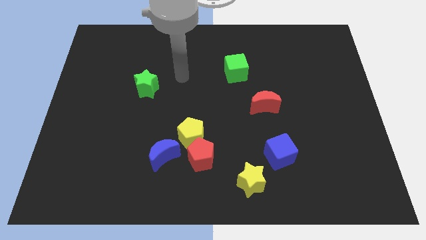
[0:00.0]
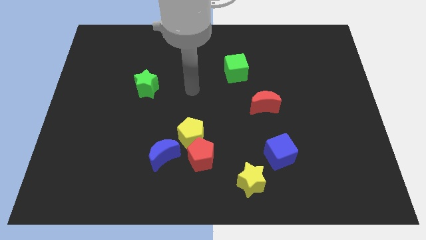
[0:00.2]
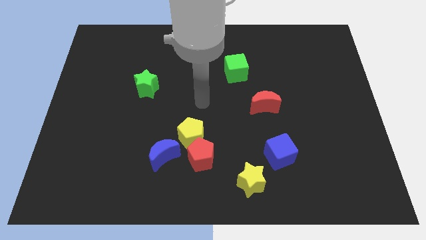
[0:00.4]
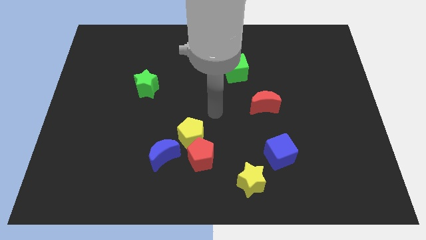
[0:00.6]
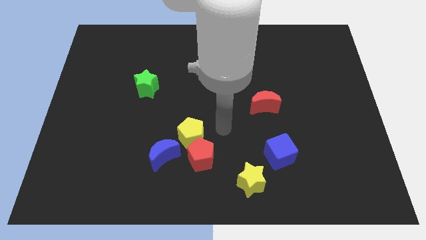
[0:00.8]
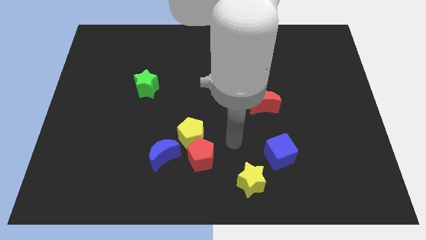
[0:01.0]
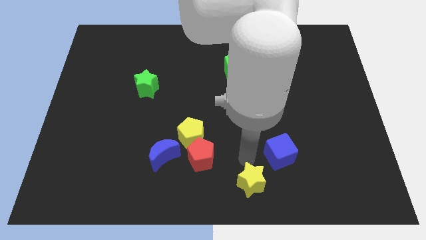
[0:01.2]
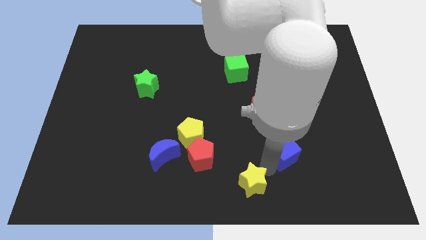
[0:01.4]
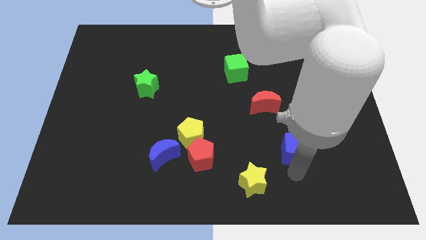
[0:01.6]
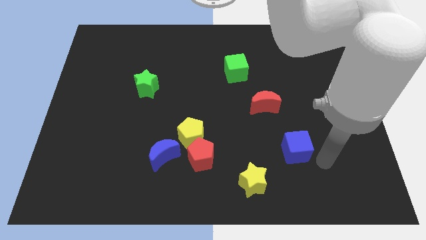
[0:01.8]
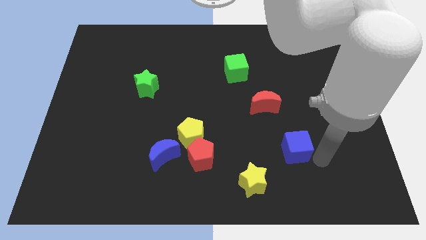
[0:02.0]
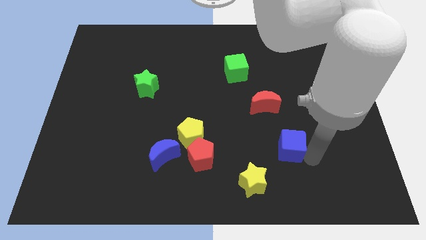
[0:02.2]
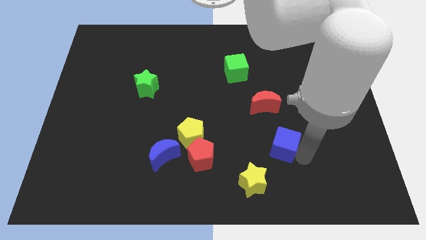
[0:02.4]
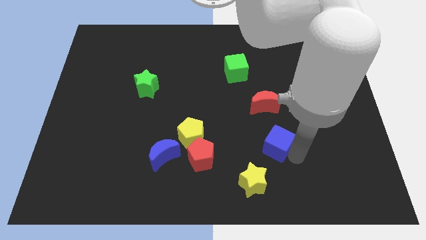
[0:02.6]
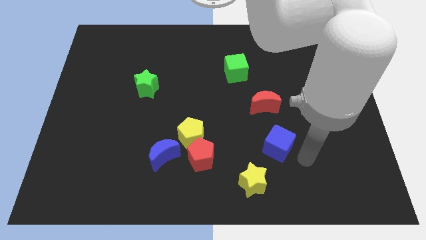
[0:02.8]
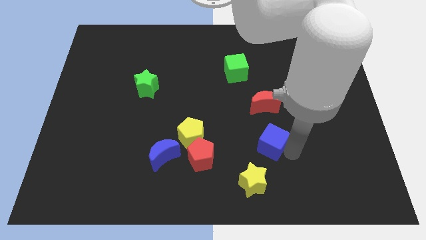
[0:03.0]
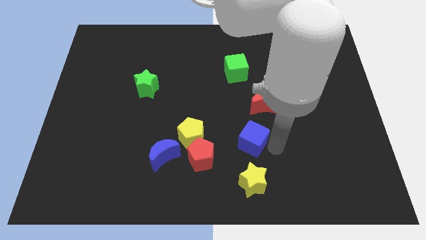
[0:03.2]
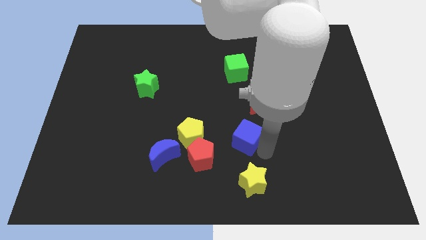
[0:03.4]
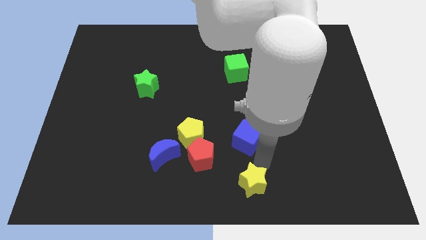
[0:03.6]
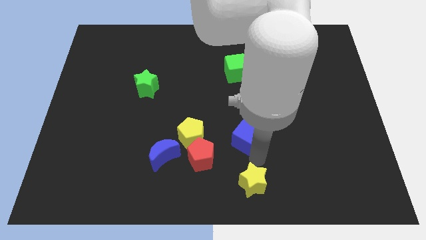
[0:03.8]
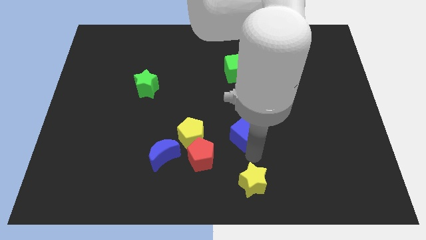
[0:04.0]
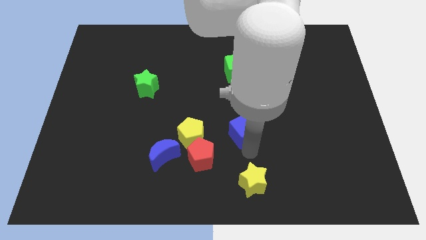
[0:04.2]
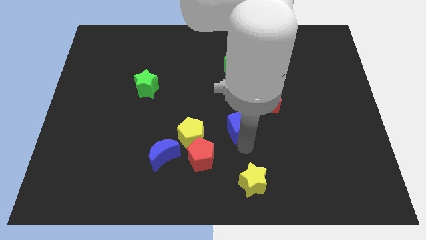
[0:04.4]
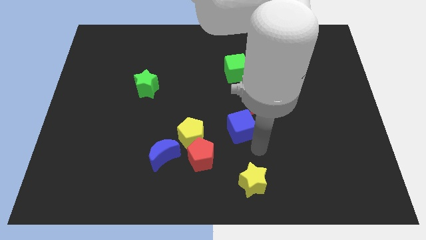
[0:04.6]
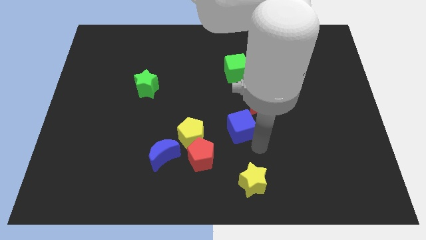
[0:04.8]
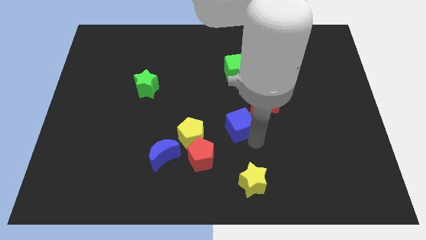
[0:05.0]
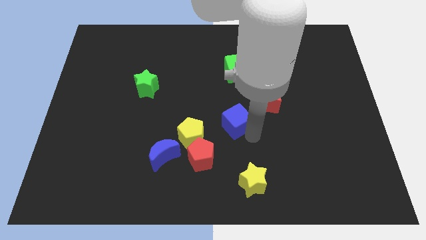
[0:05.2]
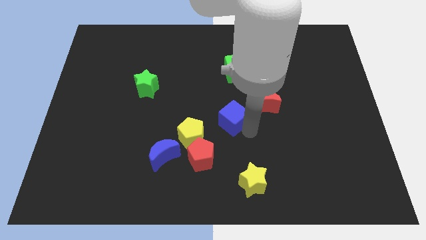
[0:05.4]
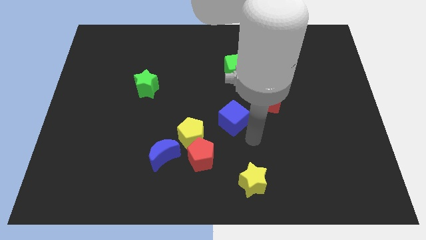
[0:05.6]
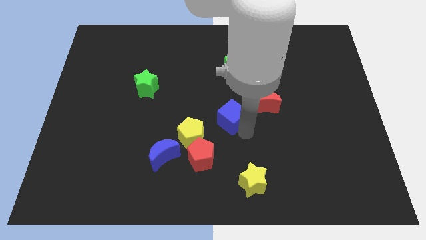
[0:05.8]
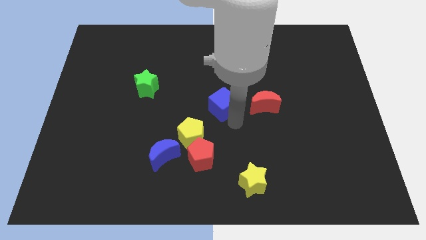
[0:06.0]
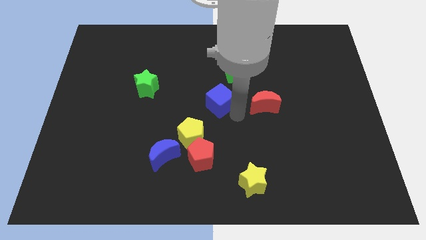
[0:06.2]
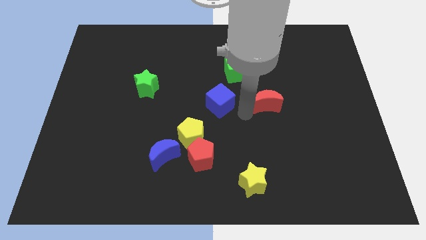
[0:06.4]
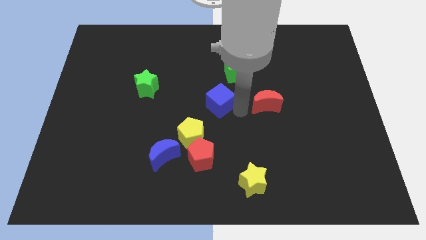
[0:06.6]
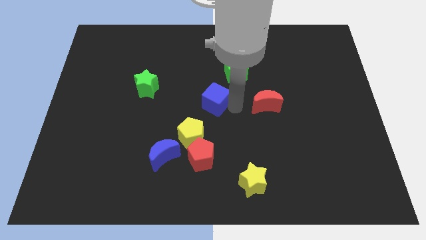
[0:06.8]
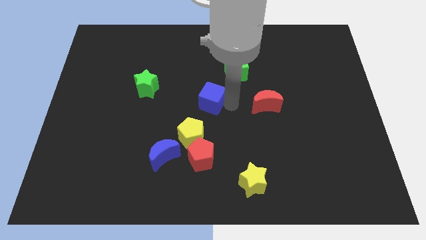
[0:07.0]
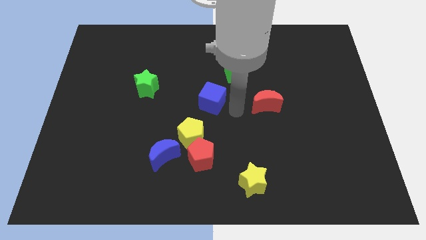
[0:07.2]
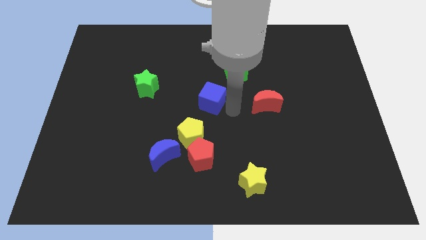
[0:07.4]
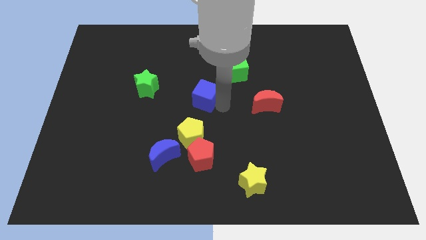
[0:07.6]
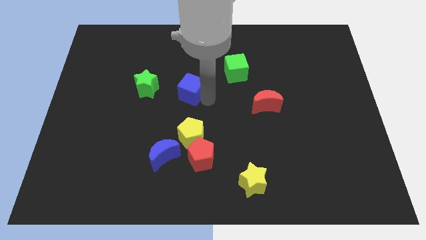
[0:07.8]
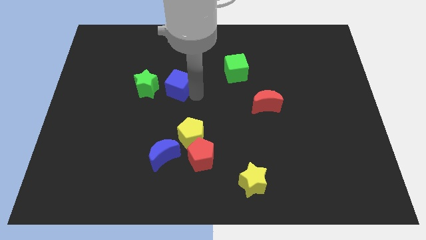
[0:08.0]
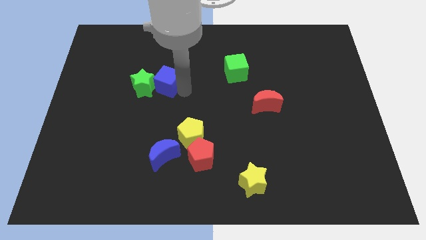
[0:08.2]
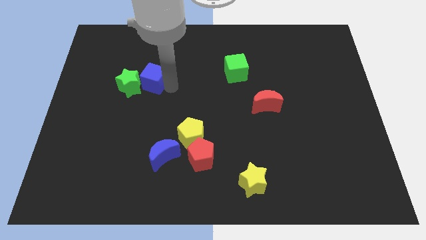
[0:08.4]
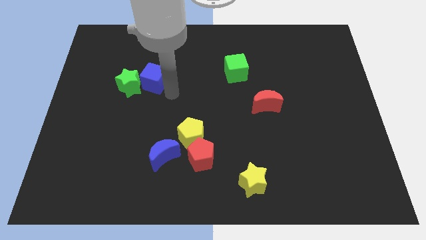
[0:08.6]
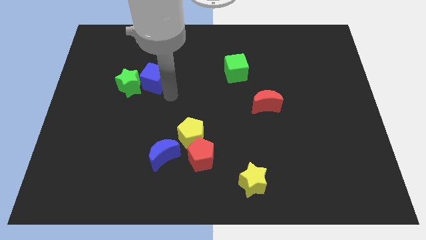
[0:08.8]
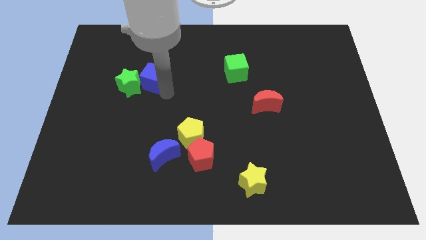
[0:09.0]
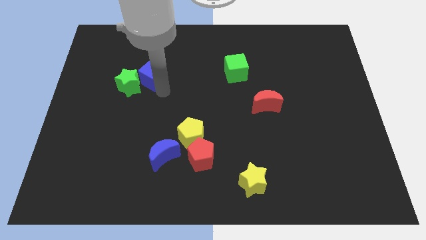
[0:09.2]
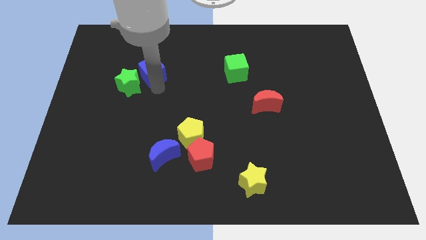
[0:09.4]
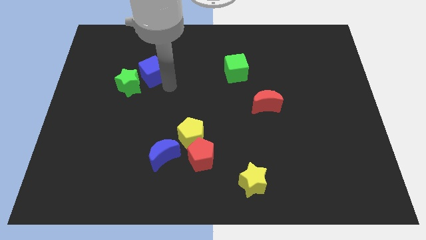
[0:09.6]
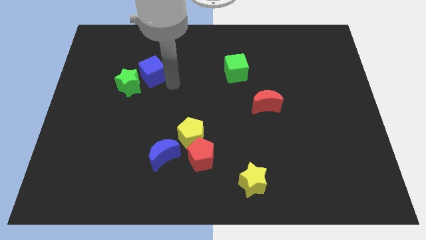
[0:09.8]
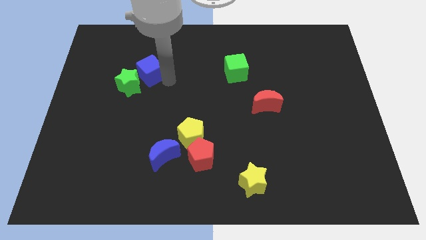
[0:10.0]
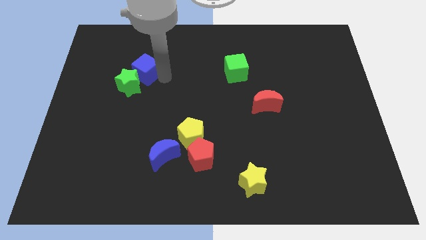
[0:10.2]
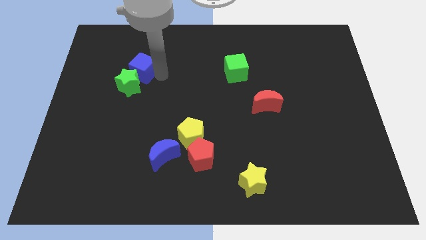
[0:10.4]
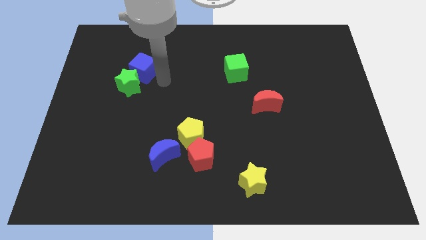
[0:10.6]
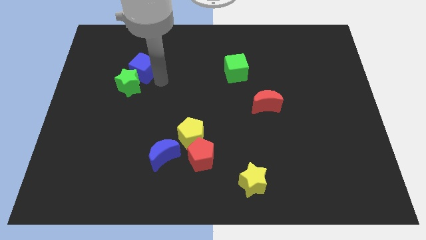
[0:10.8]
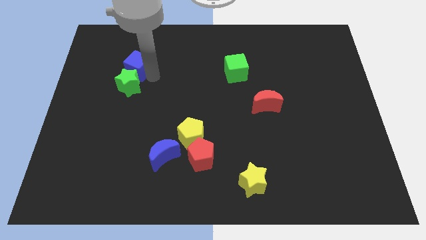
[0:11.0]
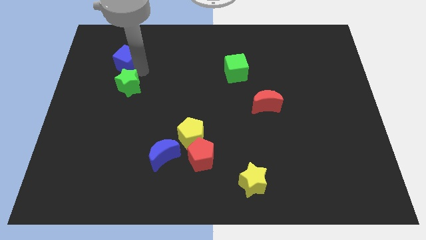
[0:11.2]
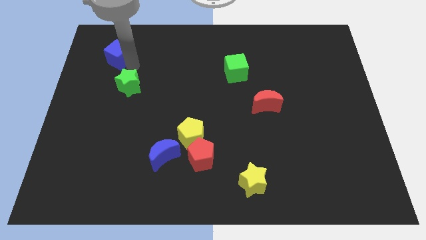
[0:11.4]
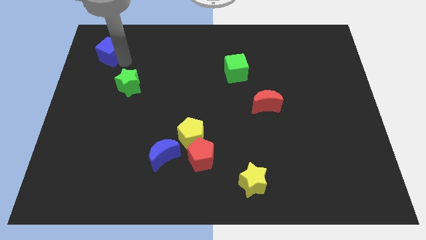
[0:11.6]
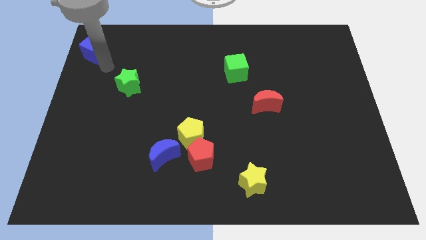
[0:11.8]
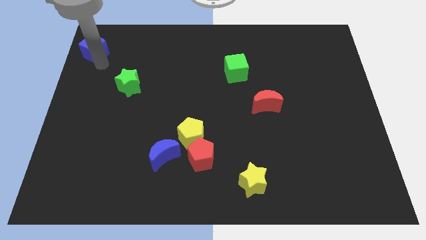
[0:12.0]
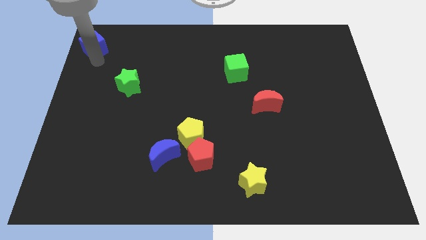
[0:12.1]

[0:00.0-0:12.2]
move the blue cube to the top left corner

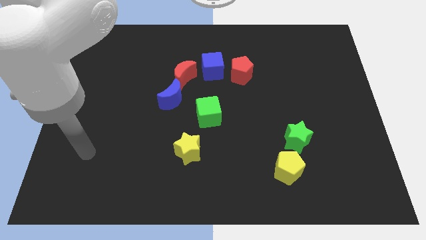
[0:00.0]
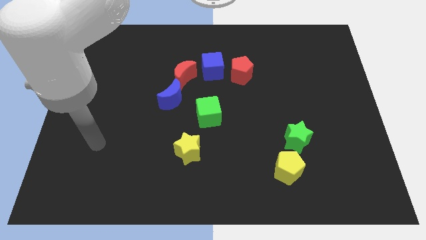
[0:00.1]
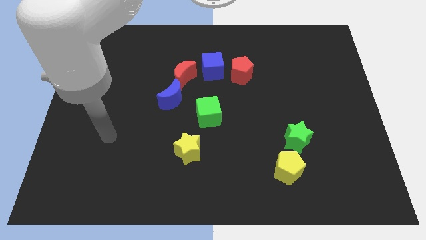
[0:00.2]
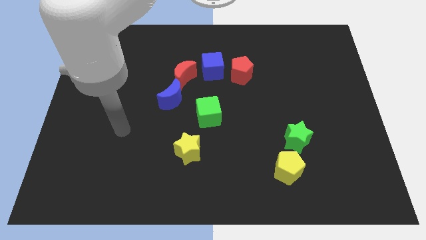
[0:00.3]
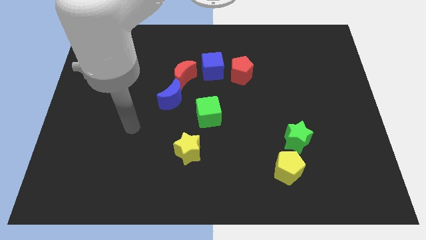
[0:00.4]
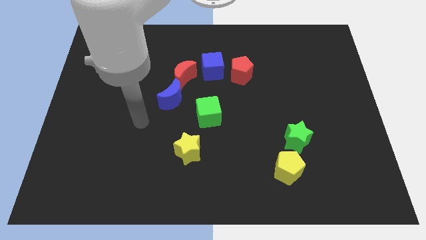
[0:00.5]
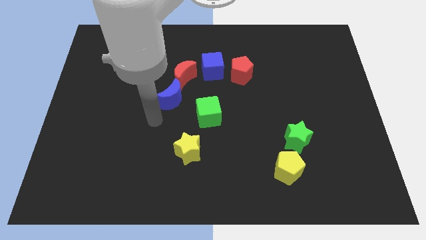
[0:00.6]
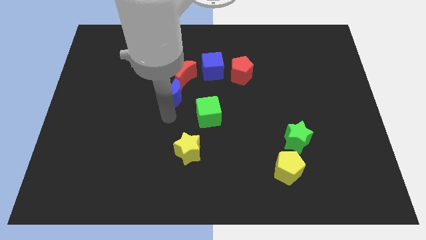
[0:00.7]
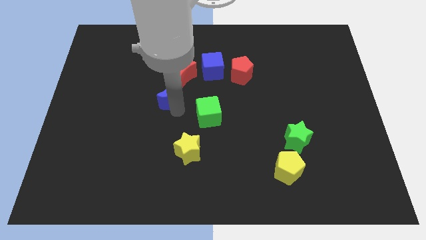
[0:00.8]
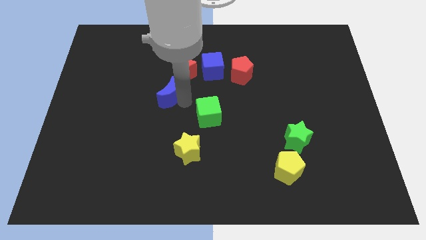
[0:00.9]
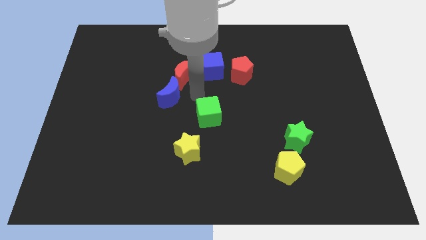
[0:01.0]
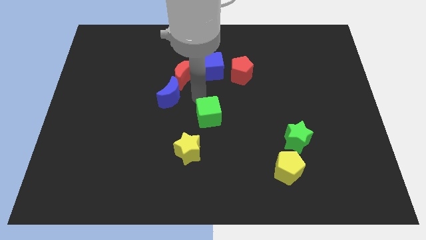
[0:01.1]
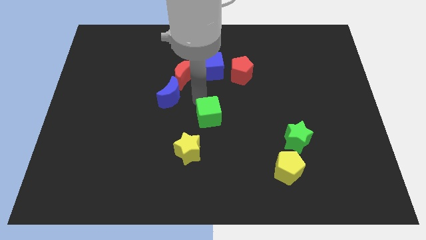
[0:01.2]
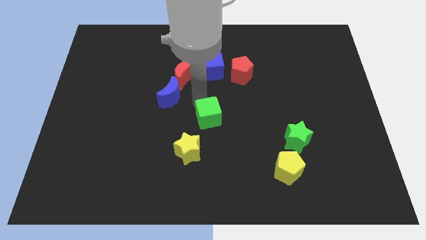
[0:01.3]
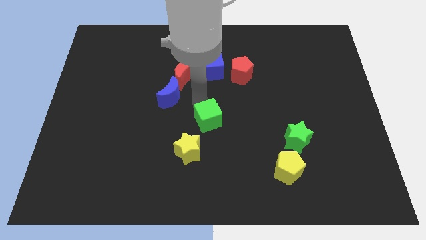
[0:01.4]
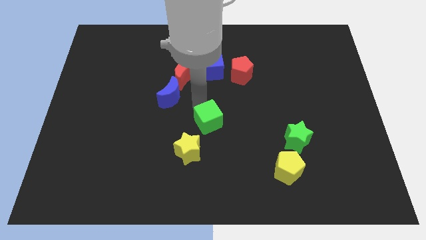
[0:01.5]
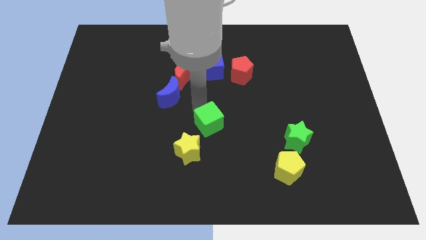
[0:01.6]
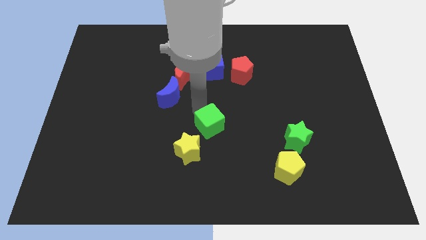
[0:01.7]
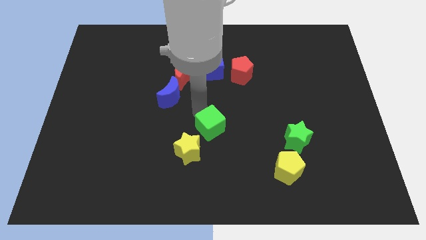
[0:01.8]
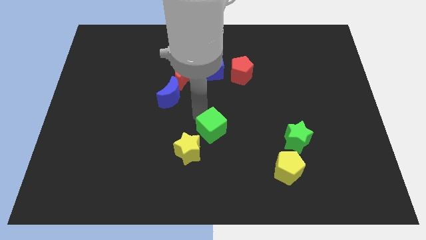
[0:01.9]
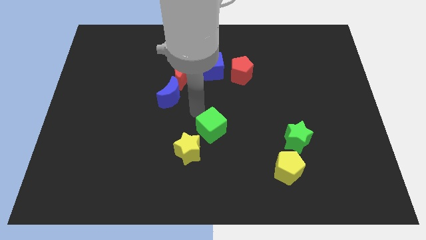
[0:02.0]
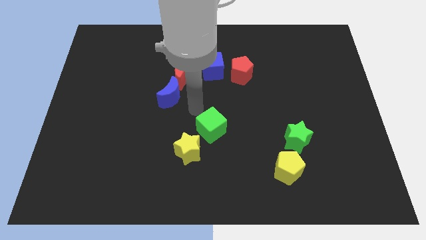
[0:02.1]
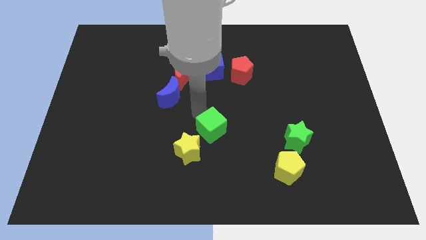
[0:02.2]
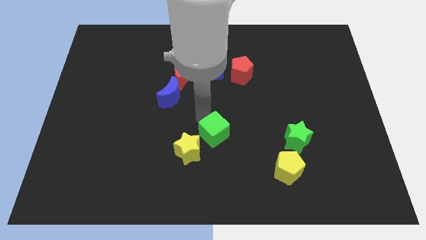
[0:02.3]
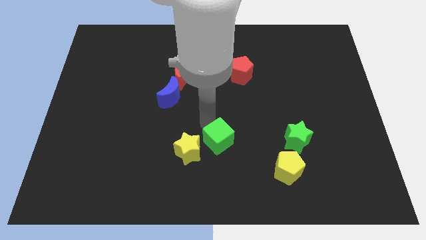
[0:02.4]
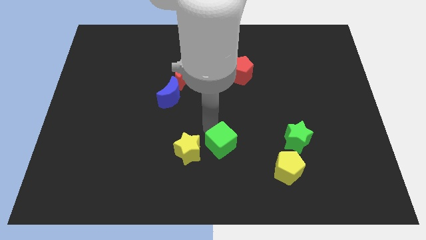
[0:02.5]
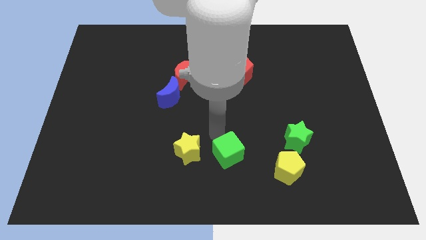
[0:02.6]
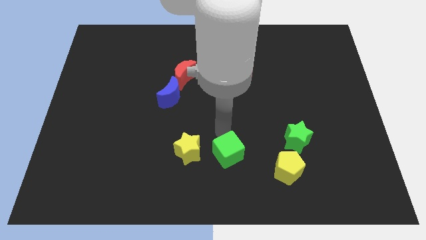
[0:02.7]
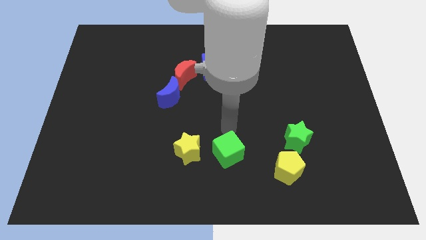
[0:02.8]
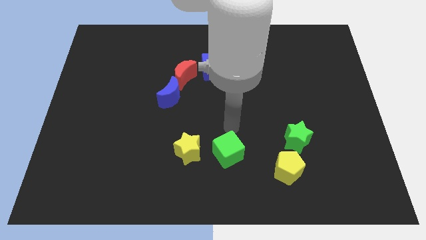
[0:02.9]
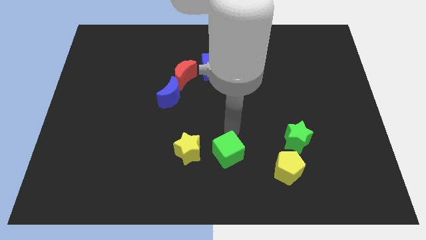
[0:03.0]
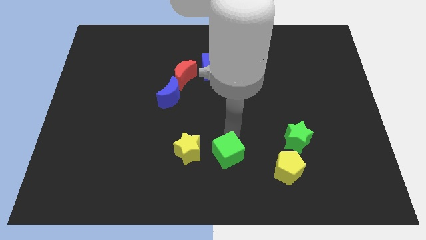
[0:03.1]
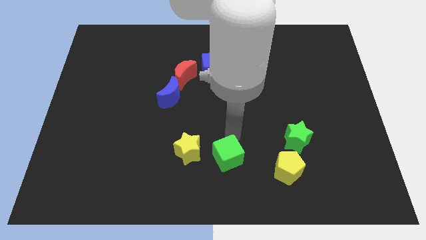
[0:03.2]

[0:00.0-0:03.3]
put the green cube to the bottom side
